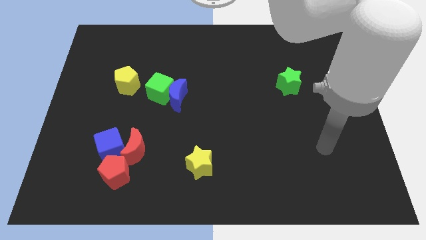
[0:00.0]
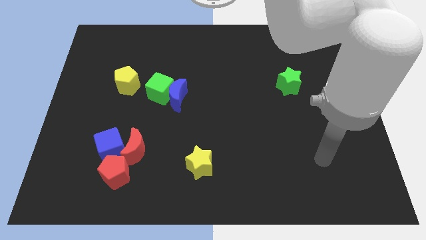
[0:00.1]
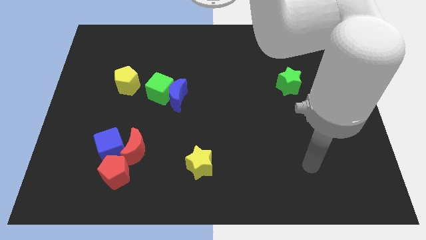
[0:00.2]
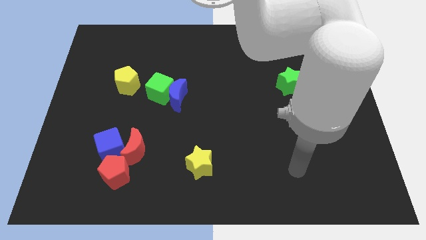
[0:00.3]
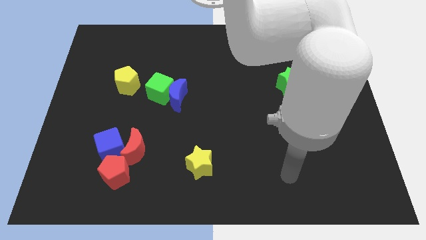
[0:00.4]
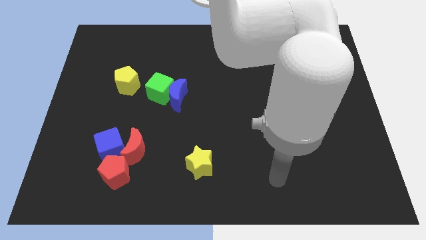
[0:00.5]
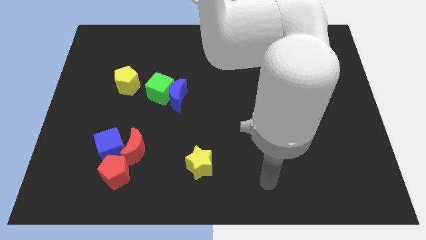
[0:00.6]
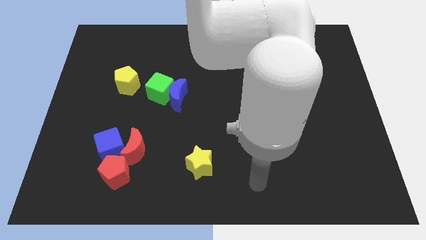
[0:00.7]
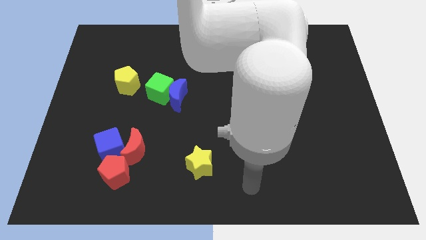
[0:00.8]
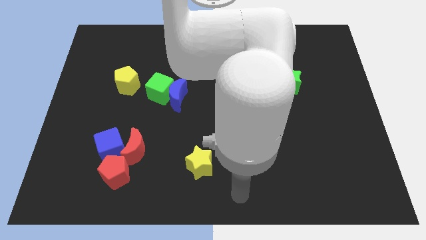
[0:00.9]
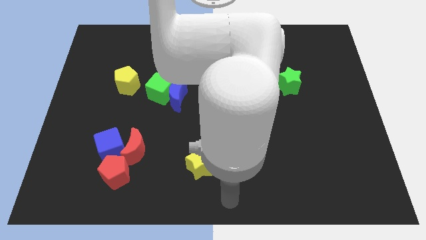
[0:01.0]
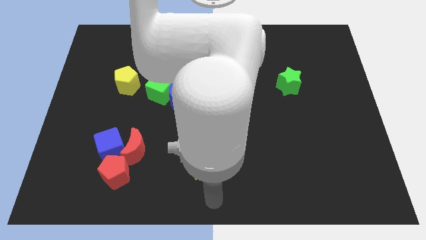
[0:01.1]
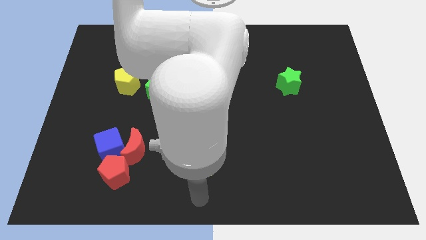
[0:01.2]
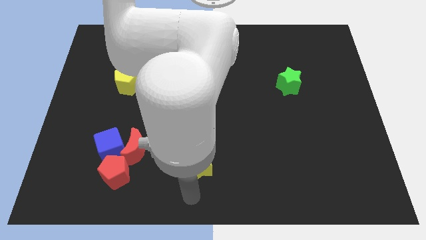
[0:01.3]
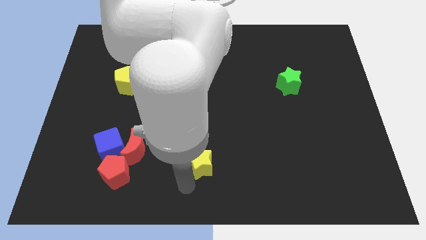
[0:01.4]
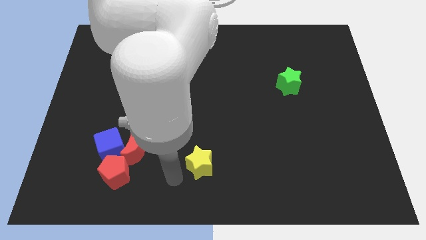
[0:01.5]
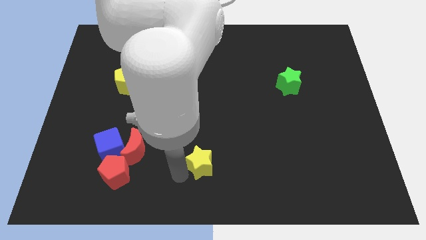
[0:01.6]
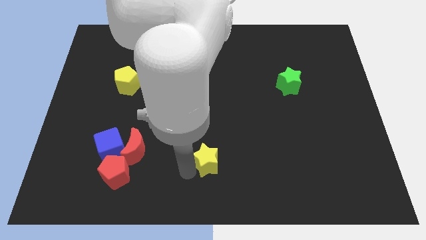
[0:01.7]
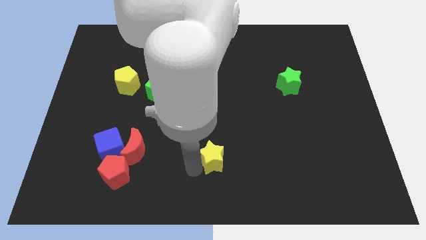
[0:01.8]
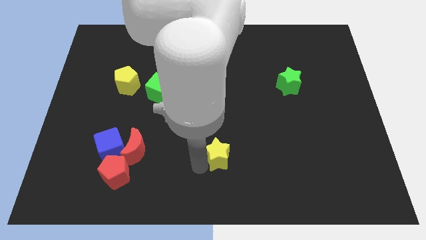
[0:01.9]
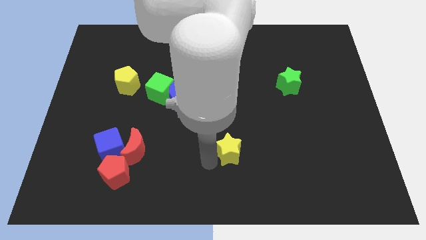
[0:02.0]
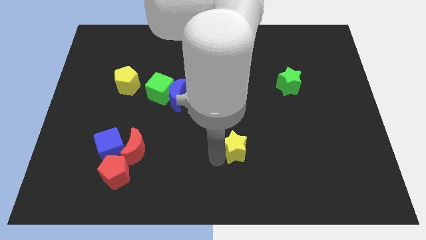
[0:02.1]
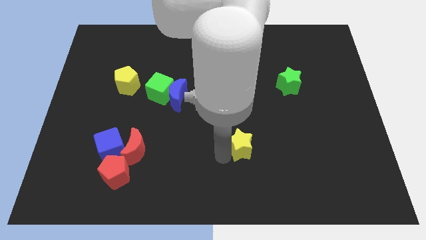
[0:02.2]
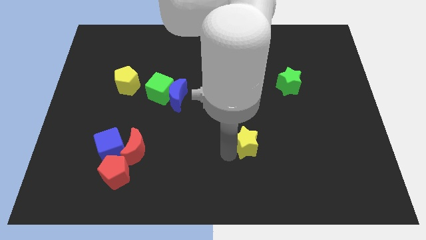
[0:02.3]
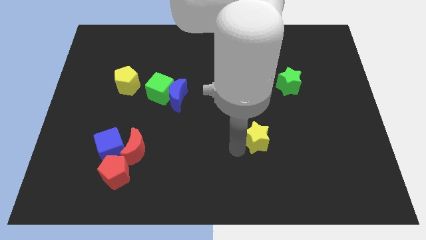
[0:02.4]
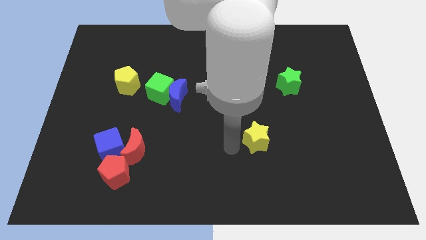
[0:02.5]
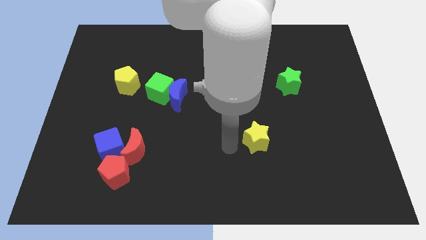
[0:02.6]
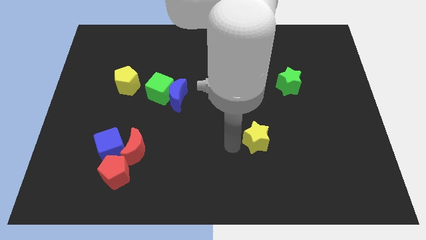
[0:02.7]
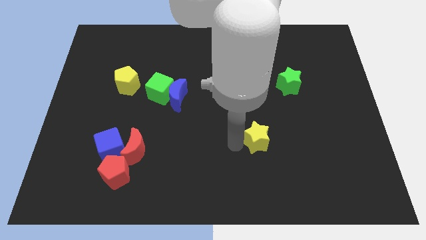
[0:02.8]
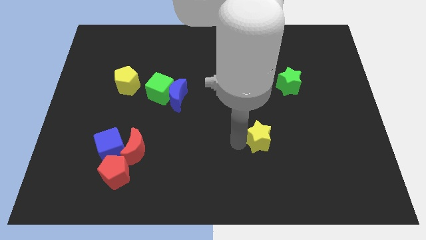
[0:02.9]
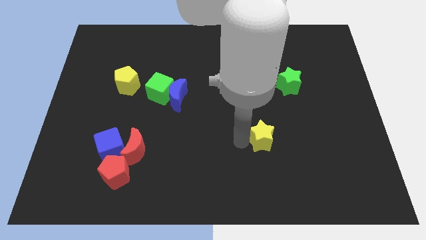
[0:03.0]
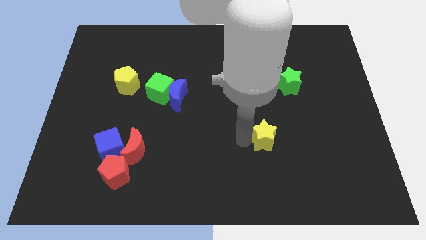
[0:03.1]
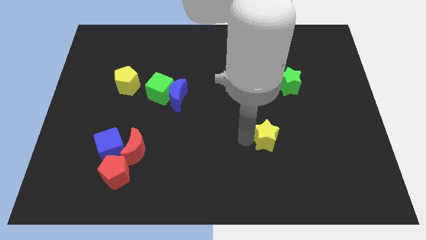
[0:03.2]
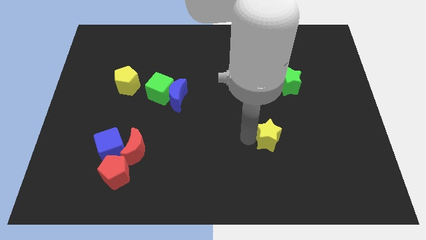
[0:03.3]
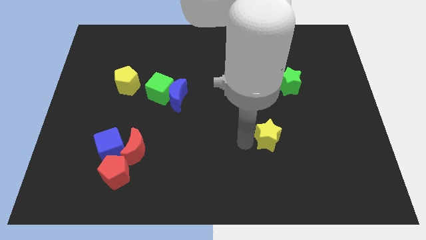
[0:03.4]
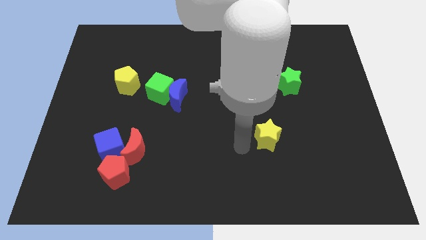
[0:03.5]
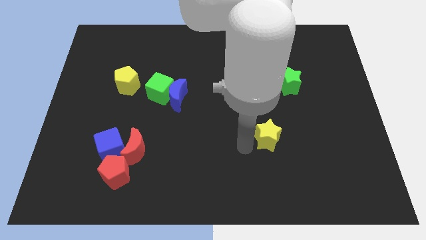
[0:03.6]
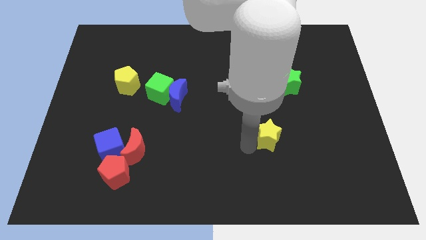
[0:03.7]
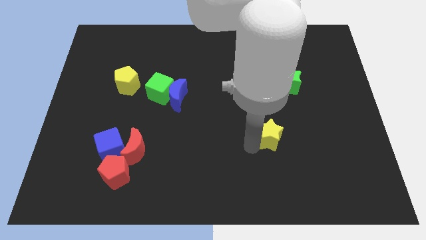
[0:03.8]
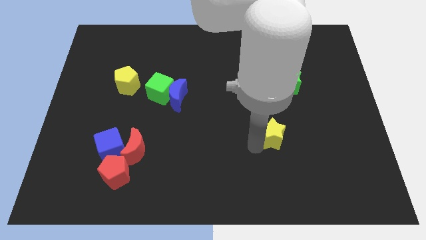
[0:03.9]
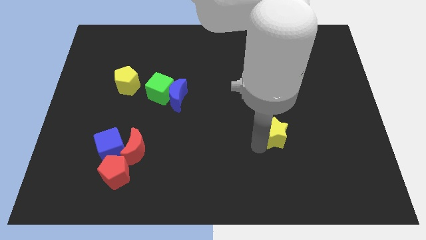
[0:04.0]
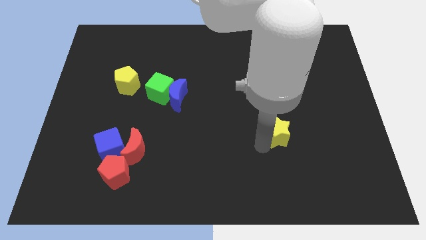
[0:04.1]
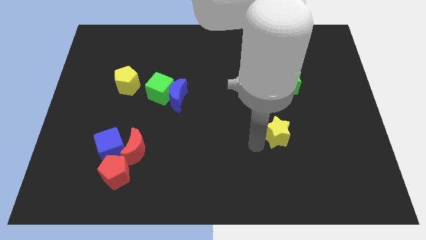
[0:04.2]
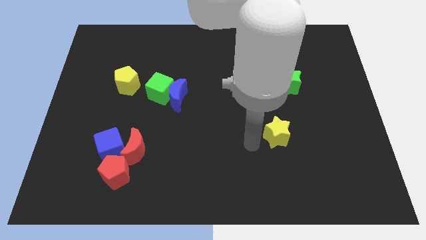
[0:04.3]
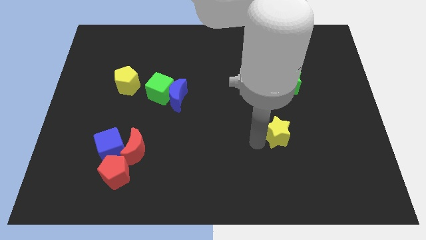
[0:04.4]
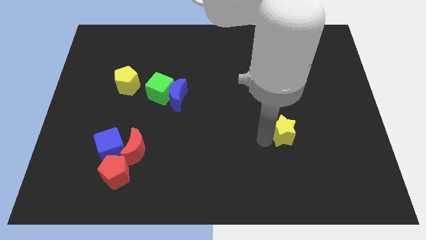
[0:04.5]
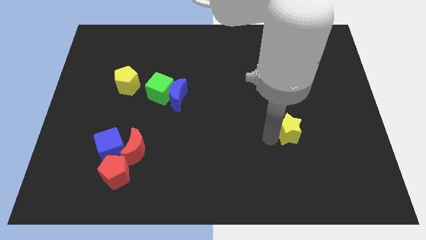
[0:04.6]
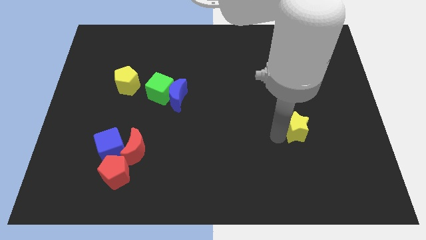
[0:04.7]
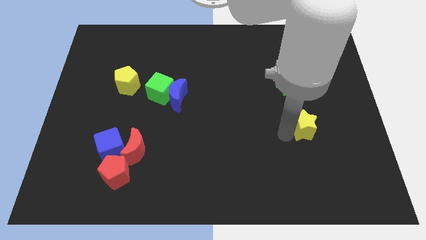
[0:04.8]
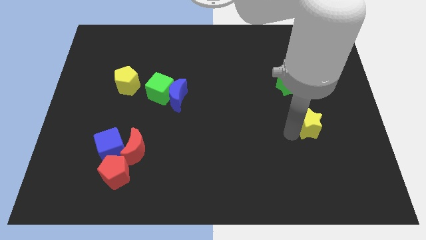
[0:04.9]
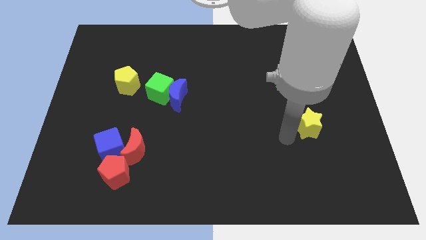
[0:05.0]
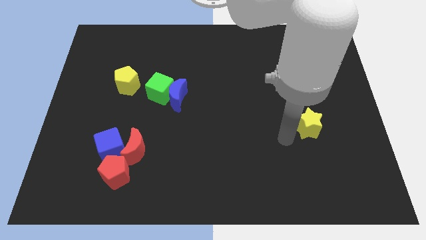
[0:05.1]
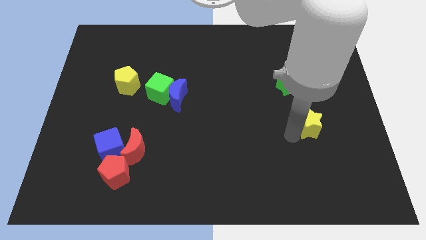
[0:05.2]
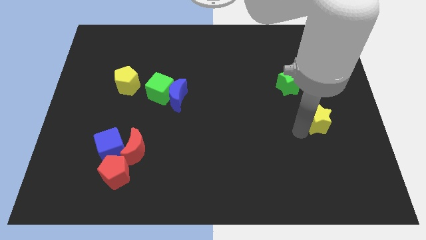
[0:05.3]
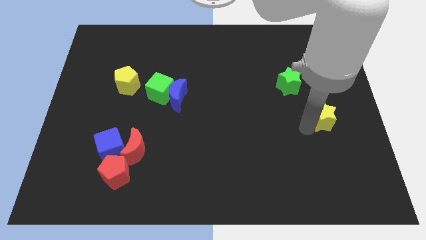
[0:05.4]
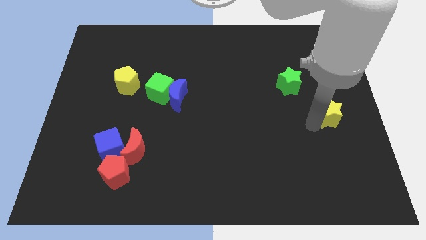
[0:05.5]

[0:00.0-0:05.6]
push the yellow star to the center right
